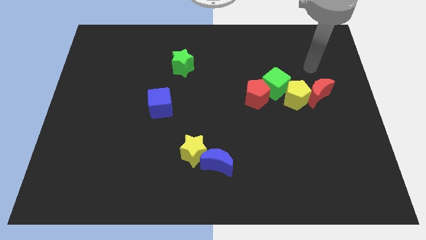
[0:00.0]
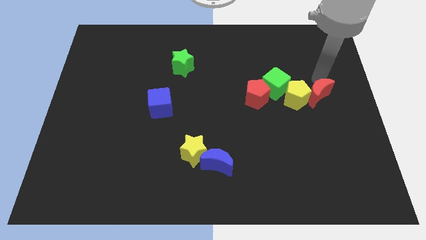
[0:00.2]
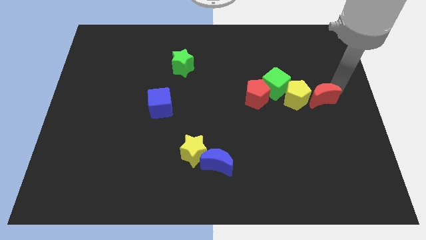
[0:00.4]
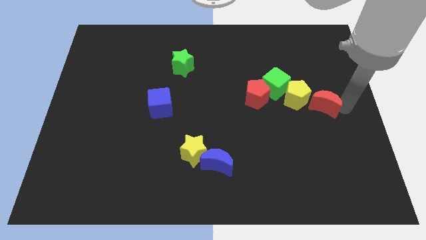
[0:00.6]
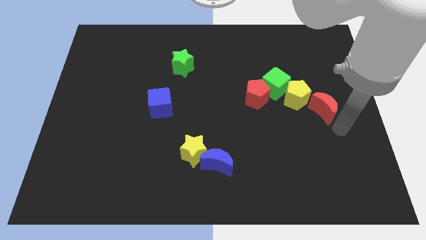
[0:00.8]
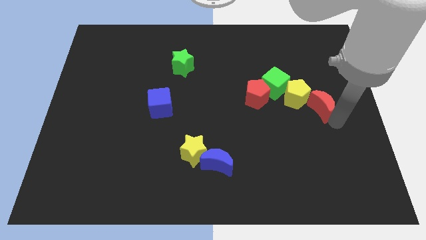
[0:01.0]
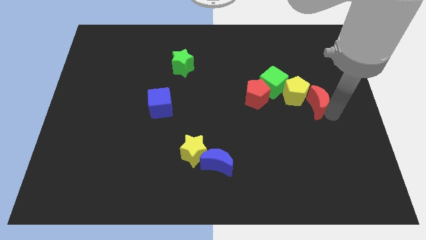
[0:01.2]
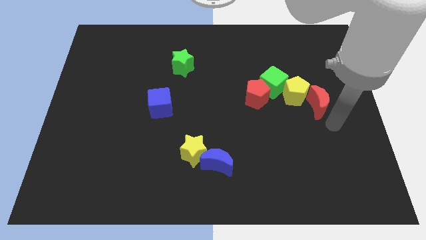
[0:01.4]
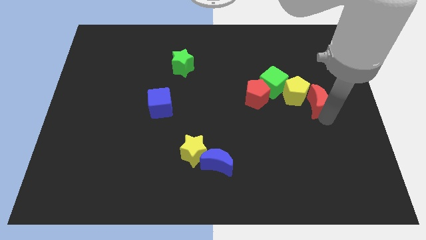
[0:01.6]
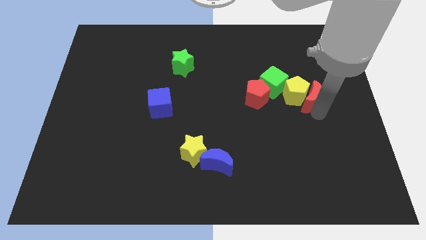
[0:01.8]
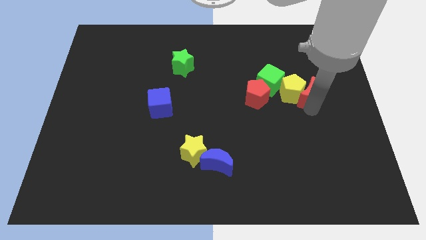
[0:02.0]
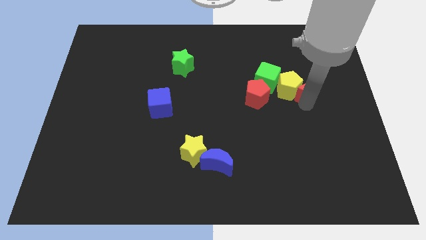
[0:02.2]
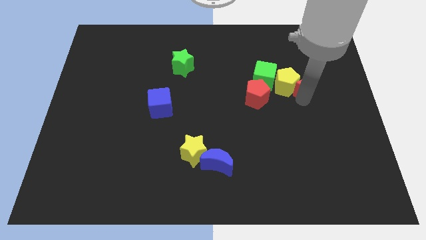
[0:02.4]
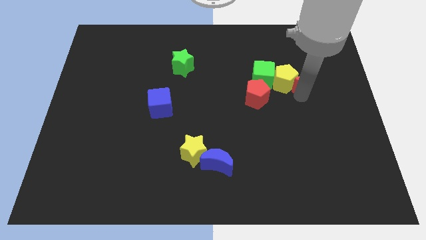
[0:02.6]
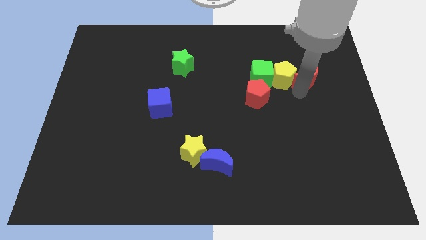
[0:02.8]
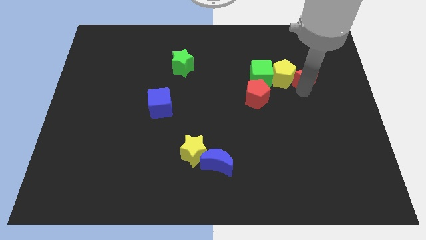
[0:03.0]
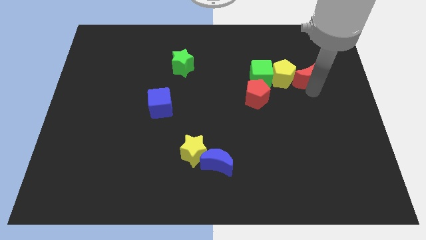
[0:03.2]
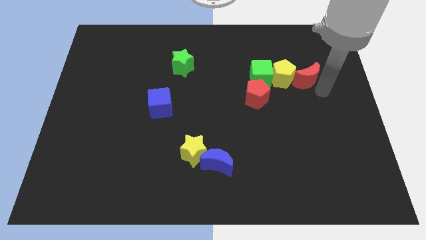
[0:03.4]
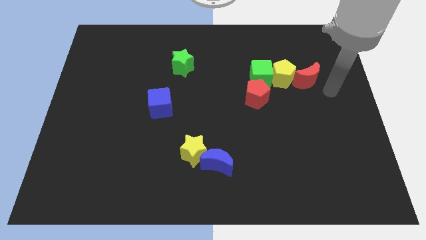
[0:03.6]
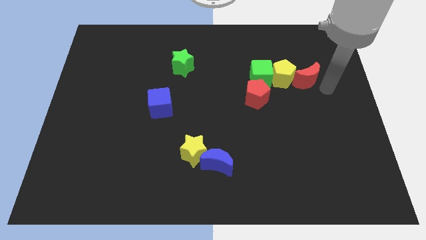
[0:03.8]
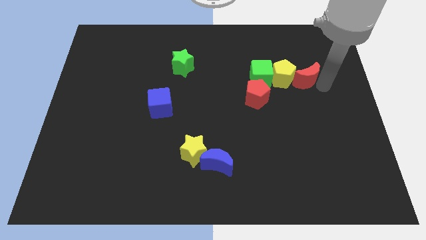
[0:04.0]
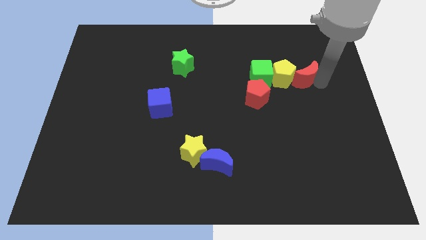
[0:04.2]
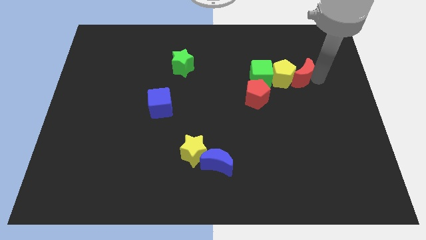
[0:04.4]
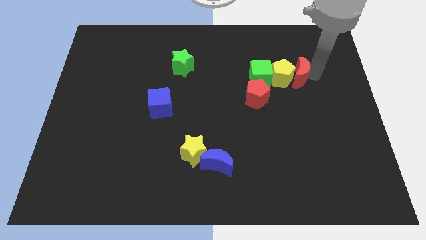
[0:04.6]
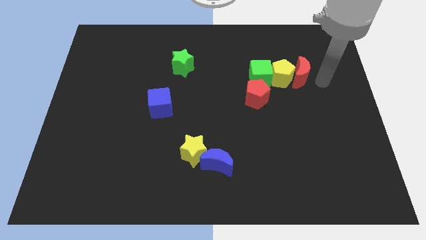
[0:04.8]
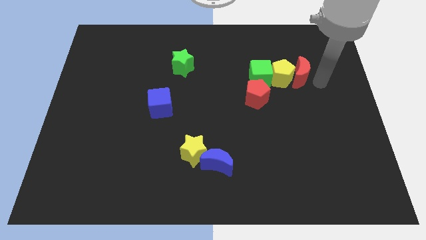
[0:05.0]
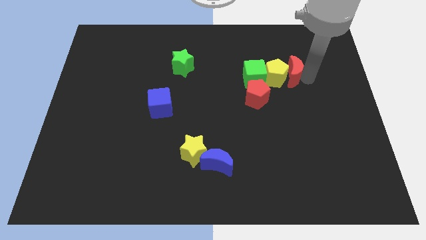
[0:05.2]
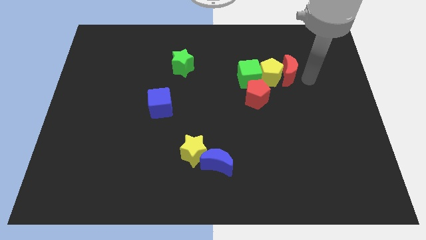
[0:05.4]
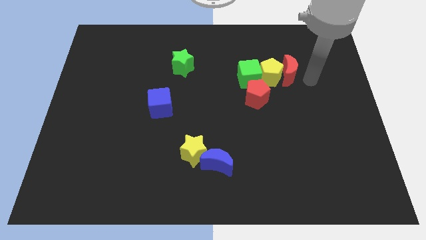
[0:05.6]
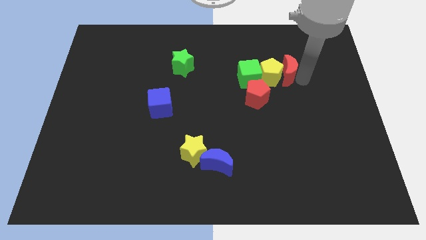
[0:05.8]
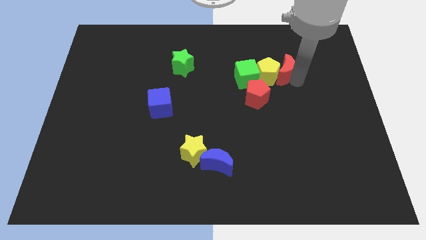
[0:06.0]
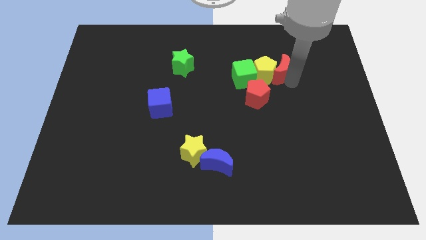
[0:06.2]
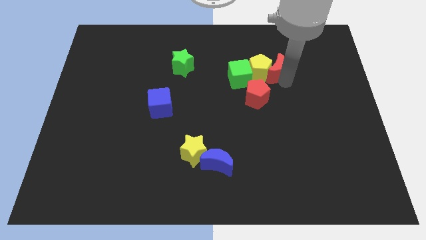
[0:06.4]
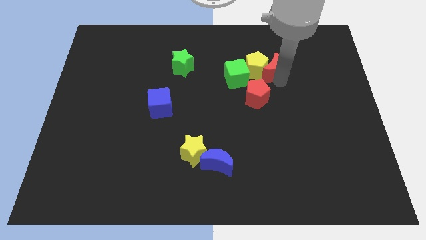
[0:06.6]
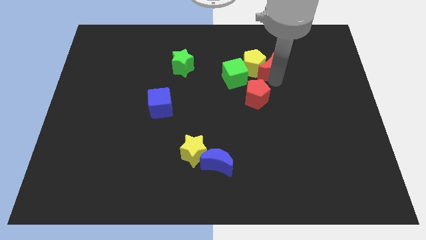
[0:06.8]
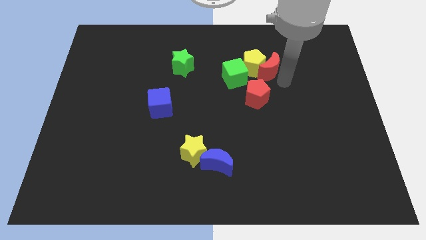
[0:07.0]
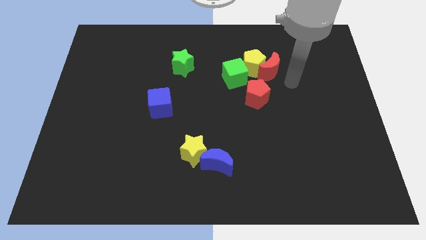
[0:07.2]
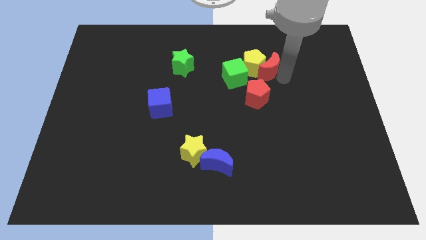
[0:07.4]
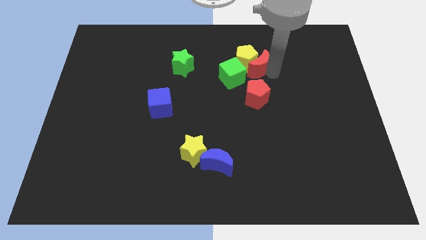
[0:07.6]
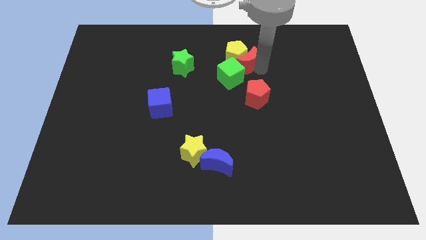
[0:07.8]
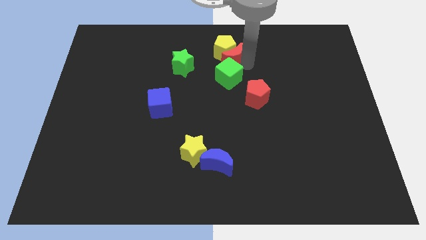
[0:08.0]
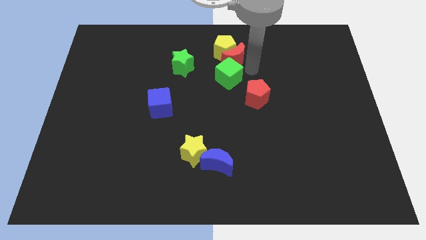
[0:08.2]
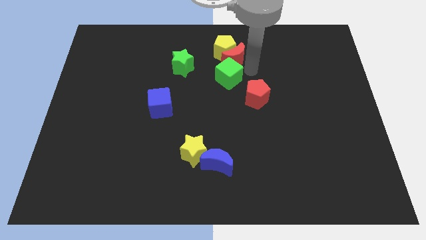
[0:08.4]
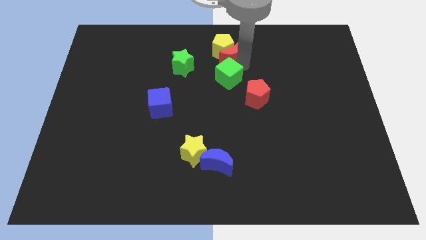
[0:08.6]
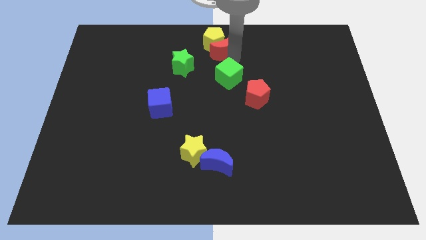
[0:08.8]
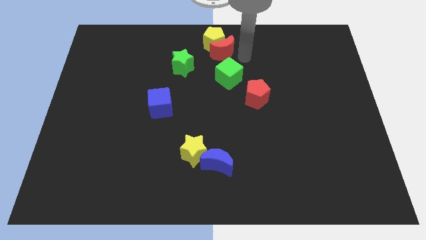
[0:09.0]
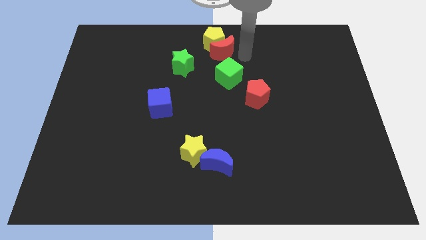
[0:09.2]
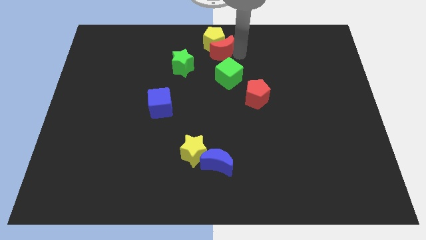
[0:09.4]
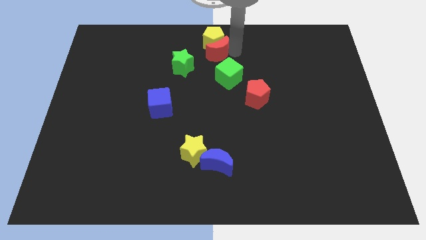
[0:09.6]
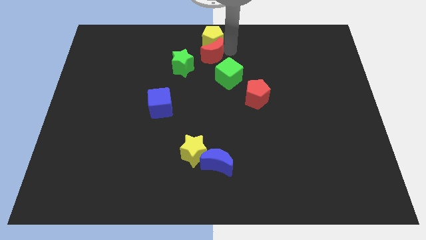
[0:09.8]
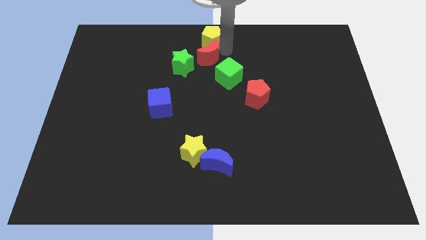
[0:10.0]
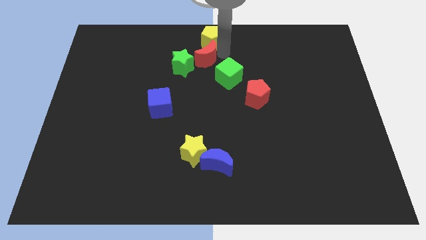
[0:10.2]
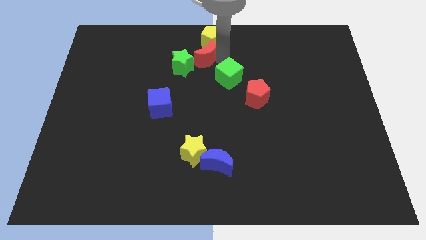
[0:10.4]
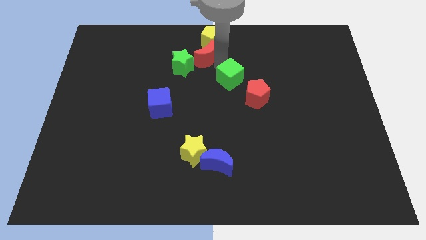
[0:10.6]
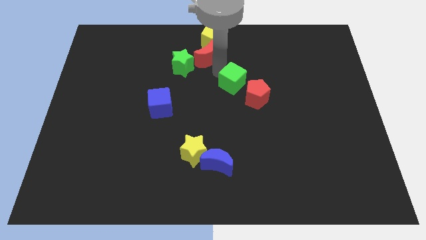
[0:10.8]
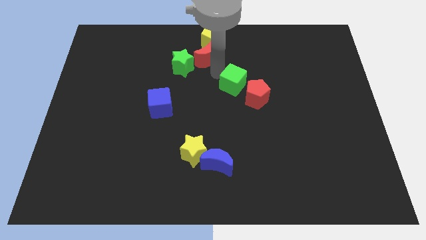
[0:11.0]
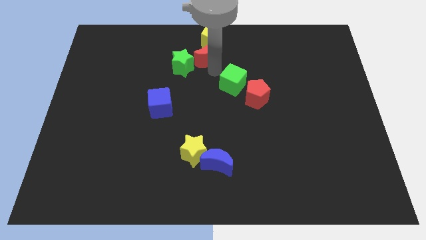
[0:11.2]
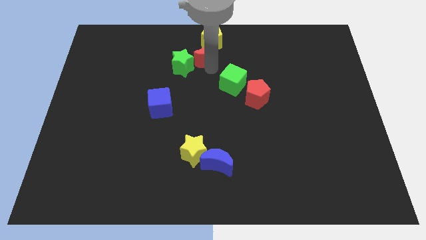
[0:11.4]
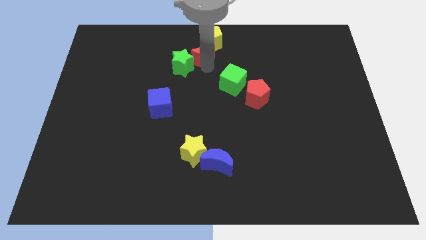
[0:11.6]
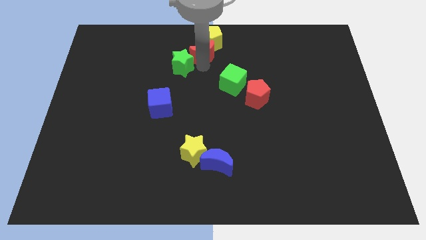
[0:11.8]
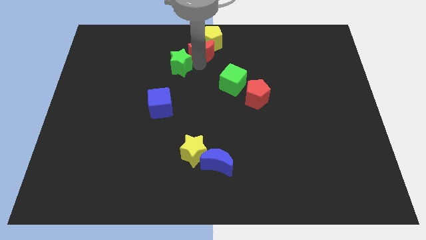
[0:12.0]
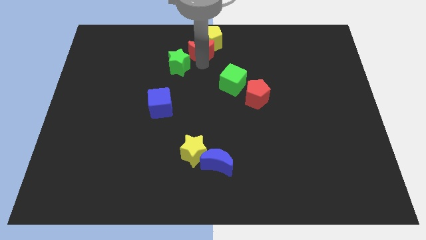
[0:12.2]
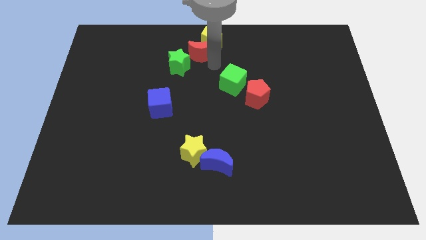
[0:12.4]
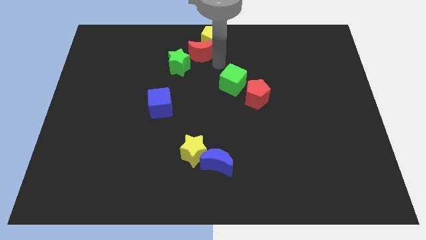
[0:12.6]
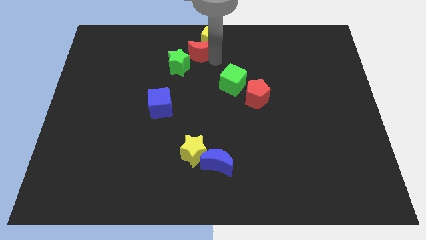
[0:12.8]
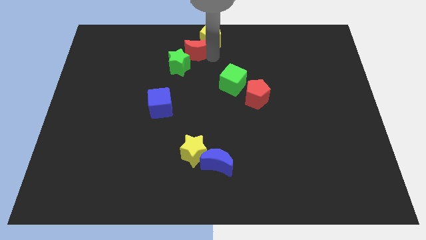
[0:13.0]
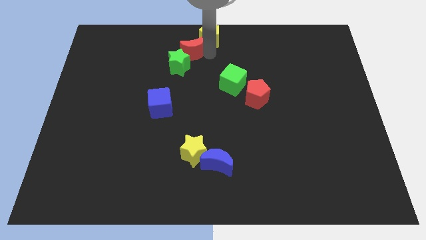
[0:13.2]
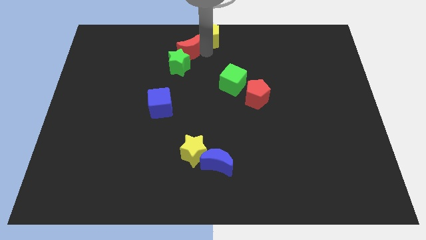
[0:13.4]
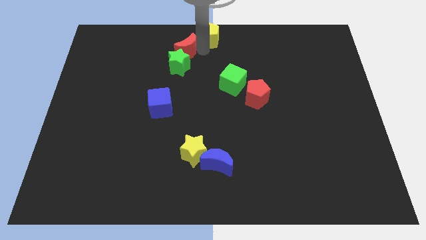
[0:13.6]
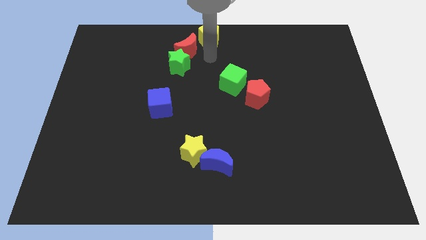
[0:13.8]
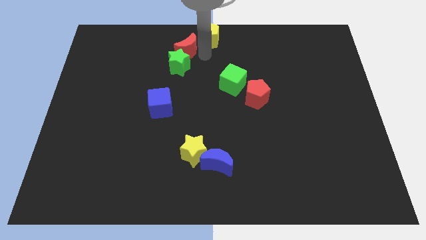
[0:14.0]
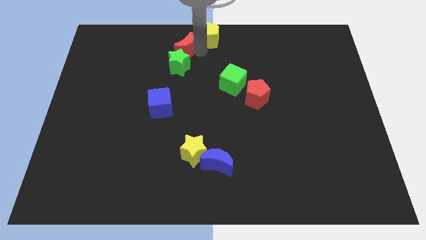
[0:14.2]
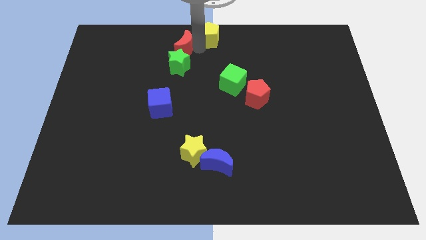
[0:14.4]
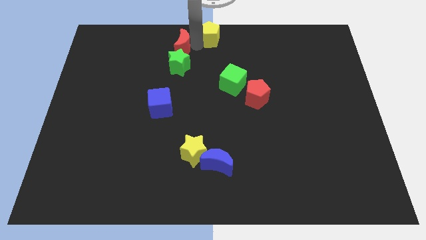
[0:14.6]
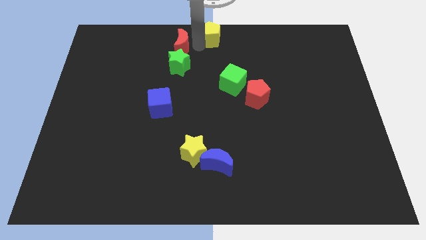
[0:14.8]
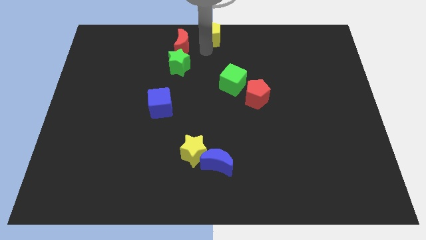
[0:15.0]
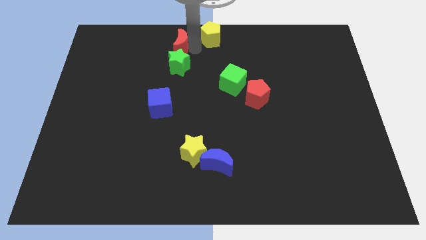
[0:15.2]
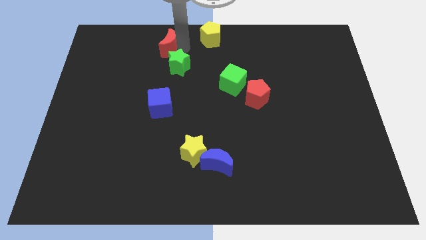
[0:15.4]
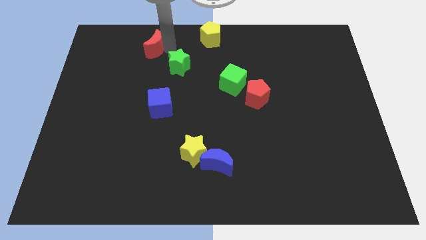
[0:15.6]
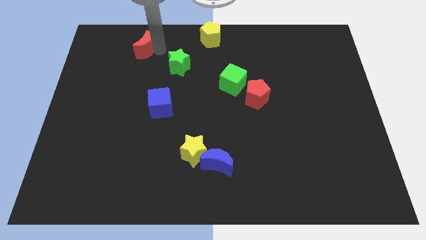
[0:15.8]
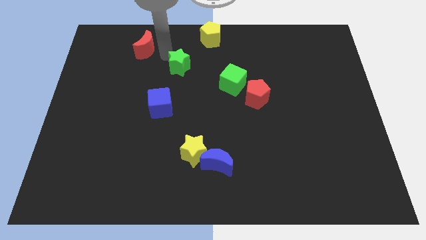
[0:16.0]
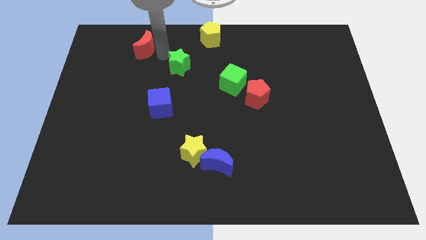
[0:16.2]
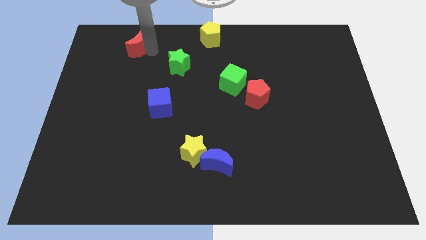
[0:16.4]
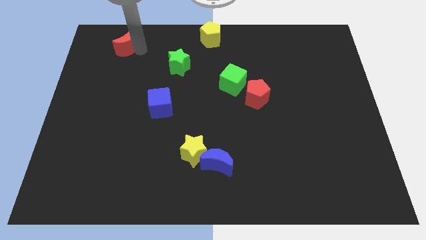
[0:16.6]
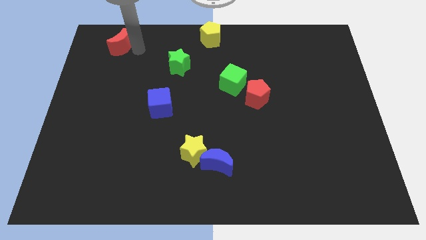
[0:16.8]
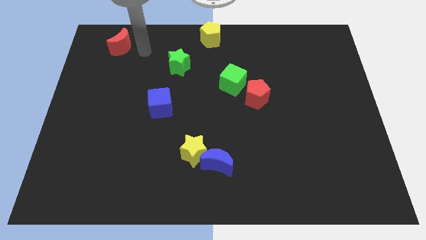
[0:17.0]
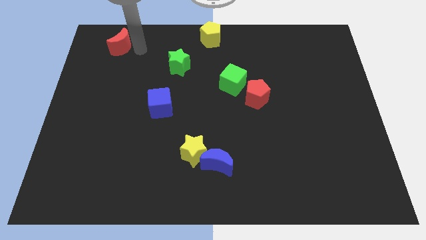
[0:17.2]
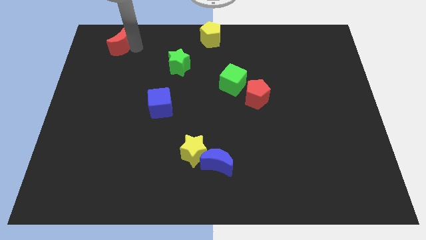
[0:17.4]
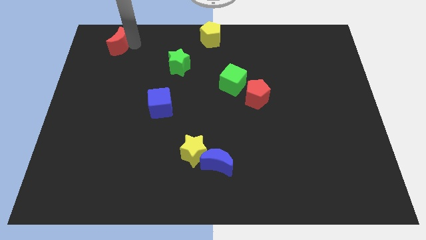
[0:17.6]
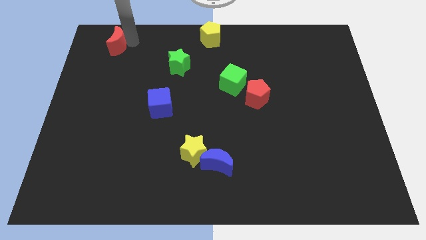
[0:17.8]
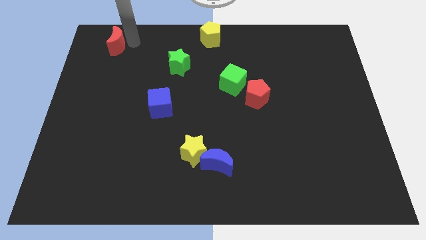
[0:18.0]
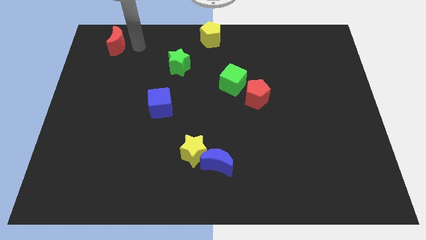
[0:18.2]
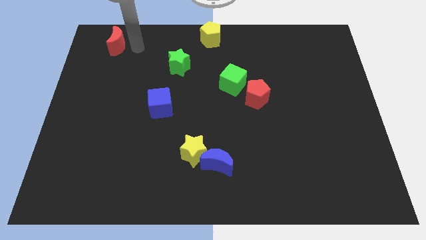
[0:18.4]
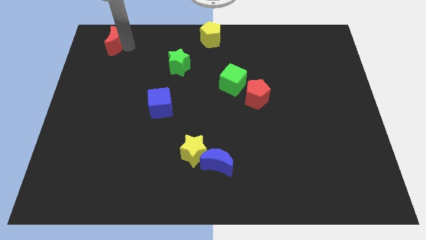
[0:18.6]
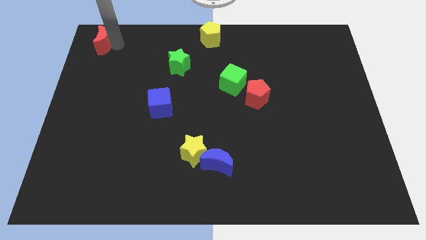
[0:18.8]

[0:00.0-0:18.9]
move the red moon to the top left corner
